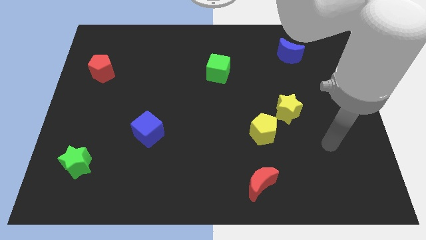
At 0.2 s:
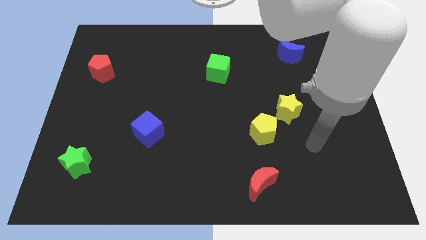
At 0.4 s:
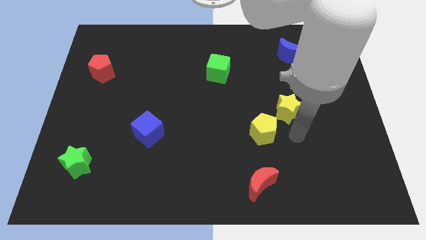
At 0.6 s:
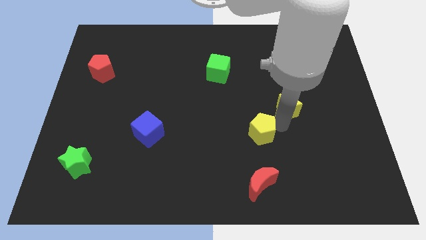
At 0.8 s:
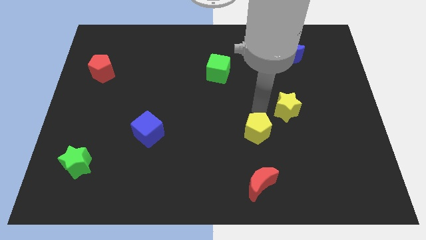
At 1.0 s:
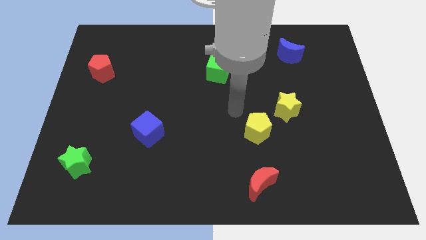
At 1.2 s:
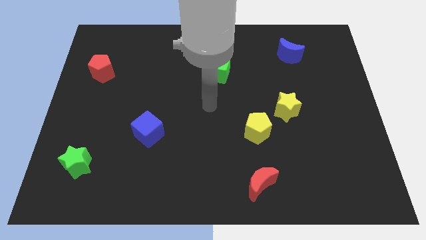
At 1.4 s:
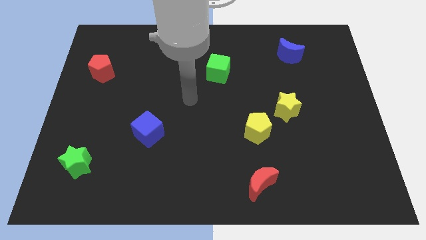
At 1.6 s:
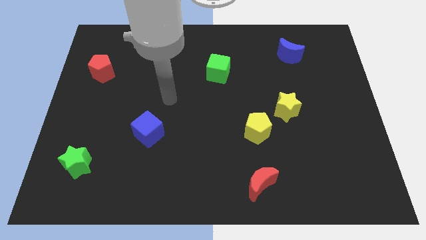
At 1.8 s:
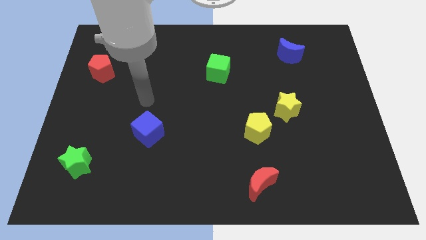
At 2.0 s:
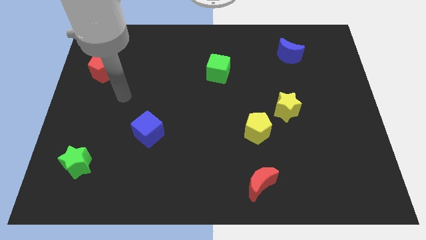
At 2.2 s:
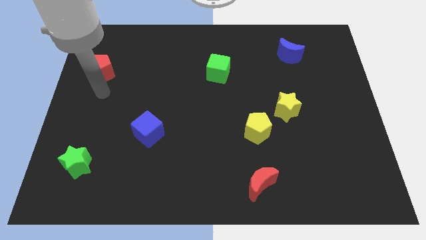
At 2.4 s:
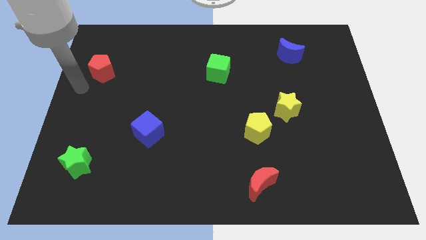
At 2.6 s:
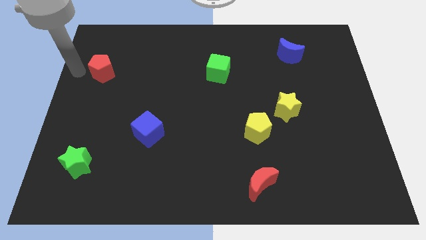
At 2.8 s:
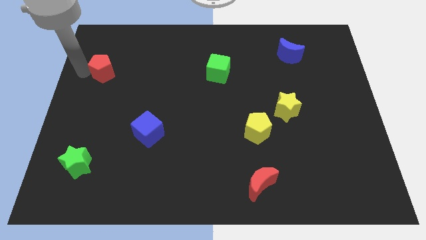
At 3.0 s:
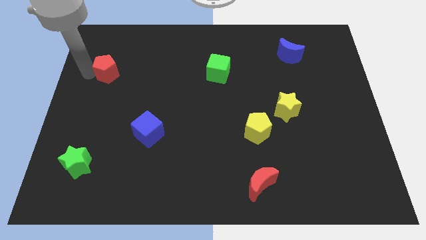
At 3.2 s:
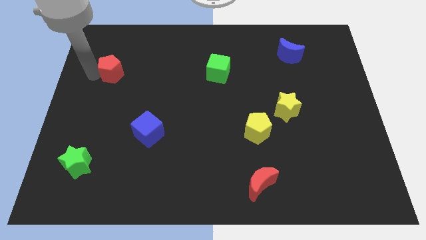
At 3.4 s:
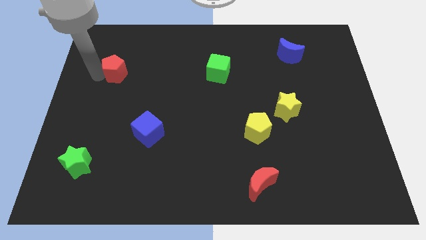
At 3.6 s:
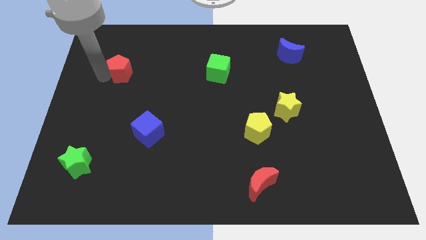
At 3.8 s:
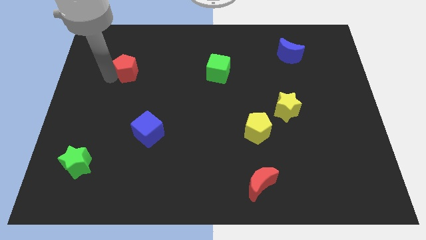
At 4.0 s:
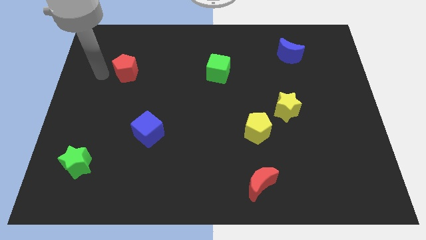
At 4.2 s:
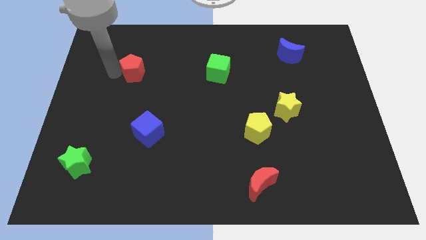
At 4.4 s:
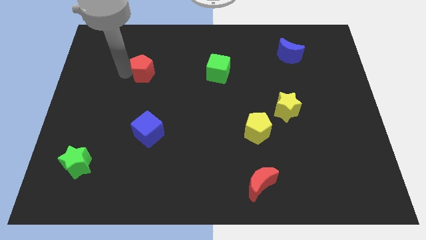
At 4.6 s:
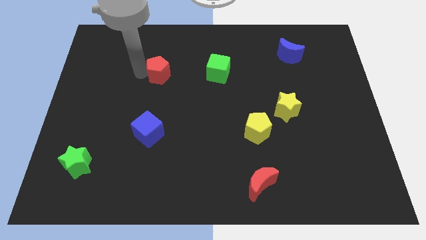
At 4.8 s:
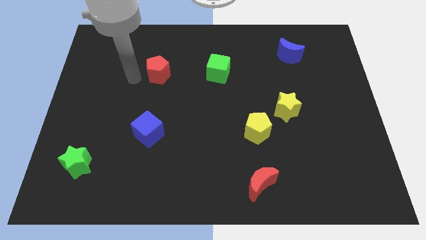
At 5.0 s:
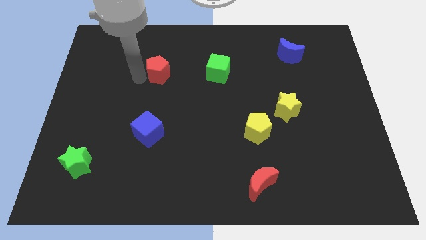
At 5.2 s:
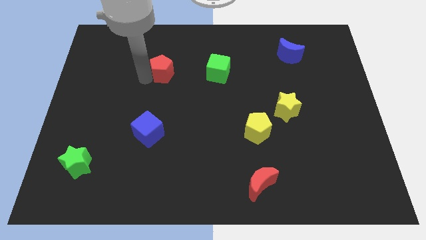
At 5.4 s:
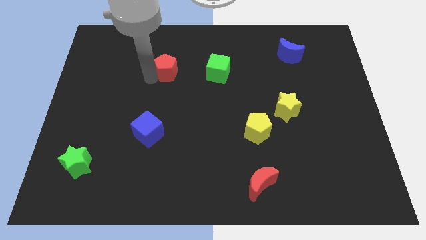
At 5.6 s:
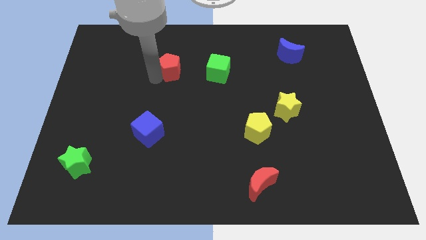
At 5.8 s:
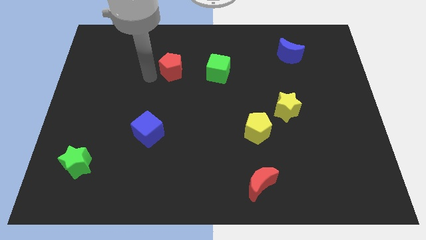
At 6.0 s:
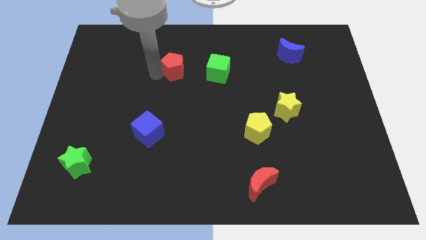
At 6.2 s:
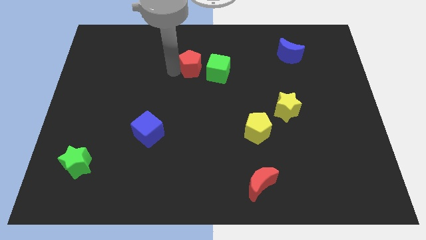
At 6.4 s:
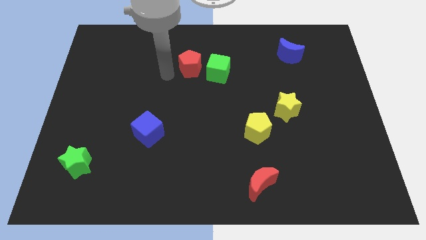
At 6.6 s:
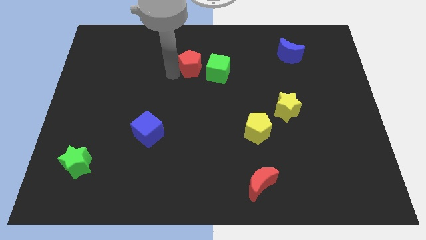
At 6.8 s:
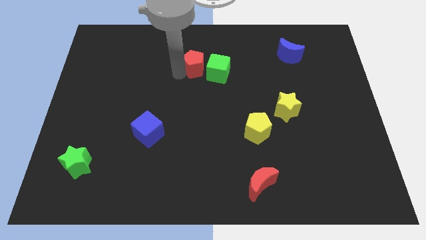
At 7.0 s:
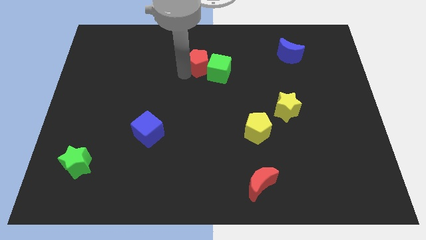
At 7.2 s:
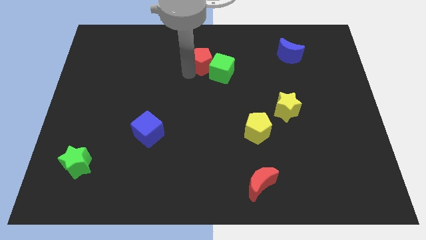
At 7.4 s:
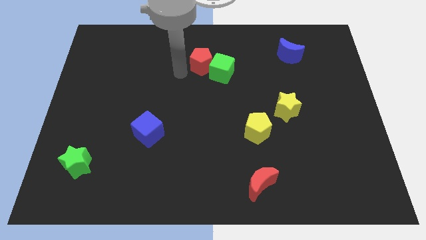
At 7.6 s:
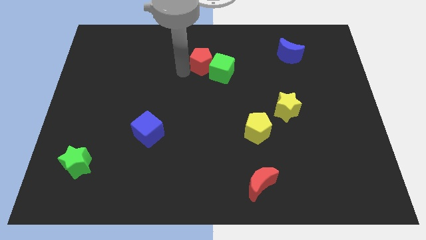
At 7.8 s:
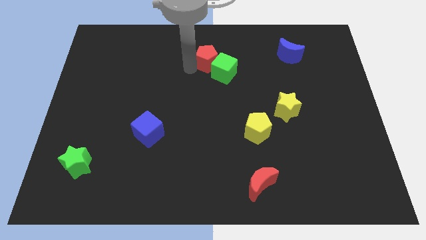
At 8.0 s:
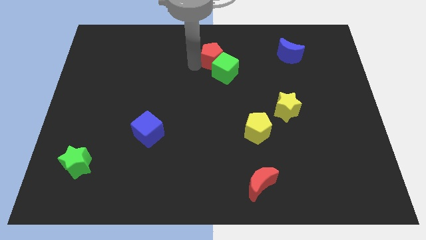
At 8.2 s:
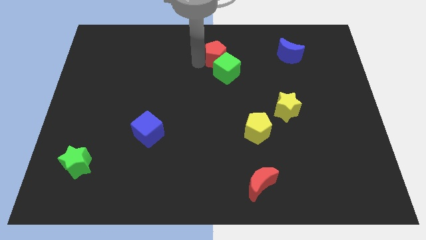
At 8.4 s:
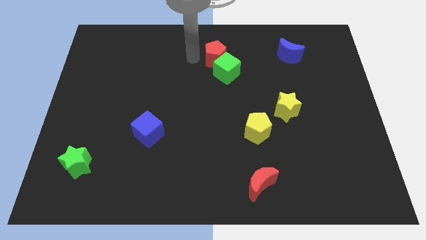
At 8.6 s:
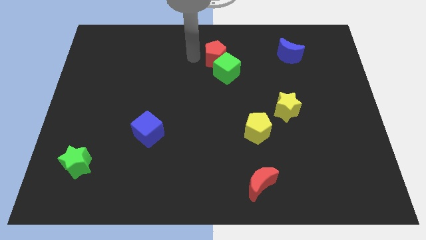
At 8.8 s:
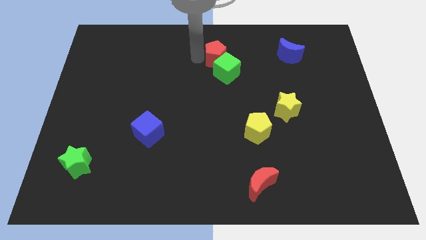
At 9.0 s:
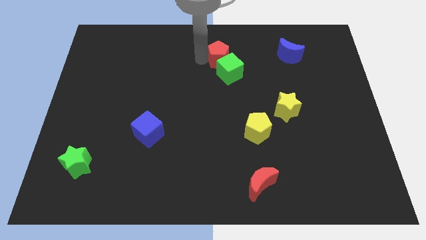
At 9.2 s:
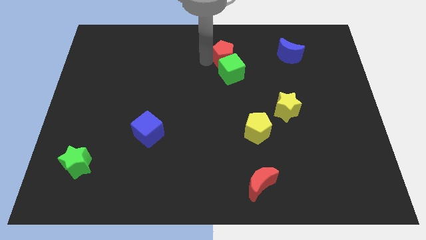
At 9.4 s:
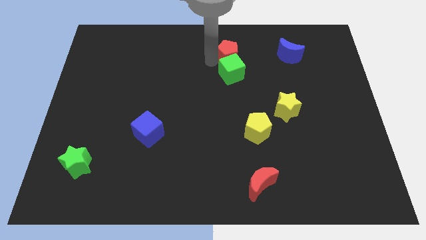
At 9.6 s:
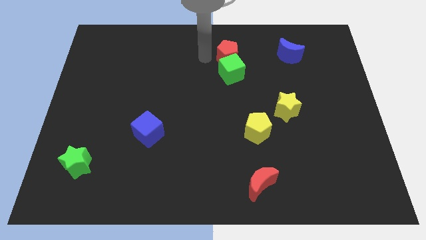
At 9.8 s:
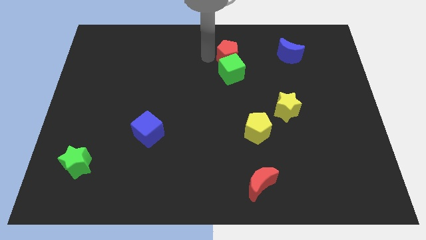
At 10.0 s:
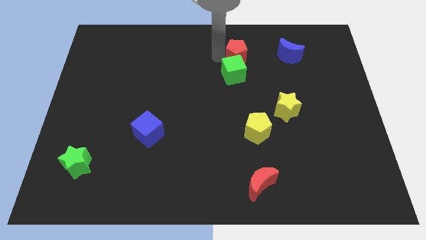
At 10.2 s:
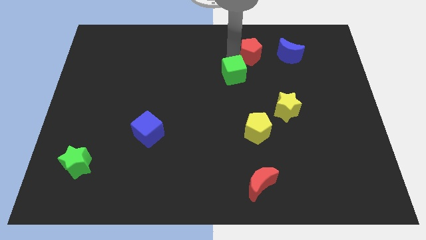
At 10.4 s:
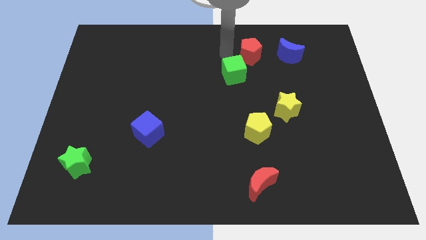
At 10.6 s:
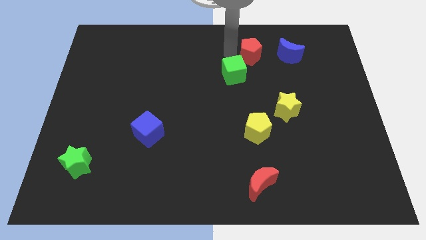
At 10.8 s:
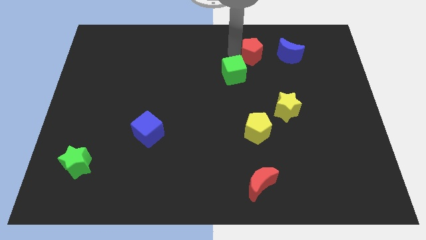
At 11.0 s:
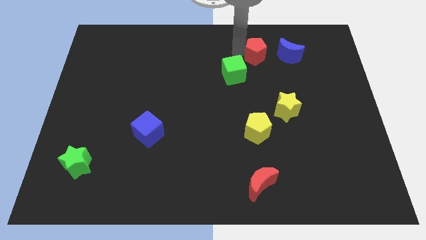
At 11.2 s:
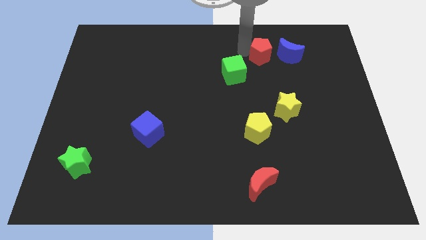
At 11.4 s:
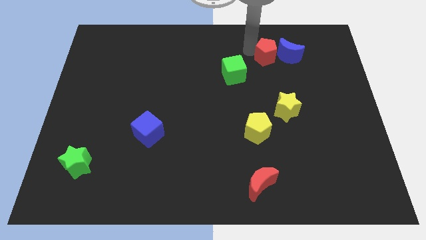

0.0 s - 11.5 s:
move the red pentagon next to the blue moon

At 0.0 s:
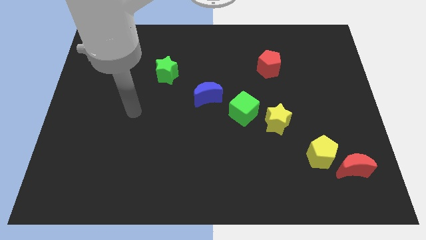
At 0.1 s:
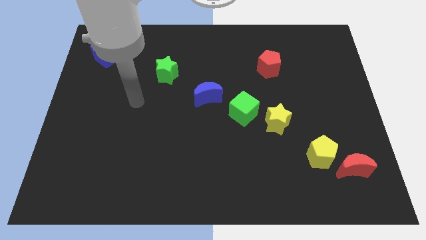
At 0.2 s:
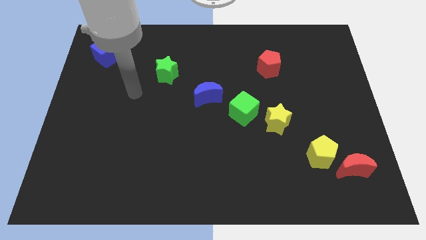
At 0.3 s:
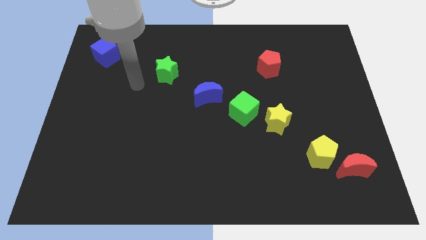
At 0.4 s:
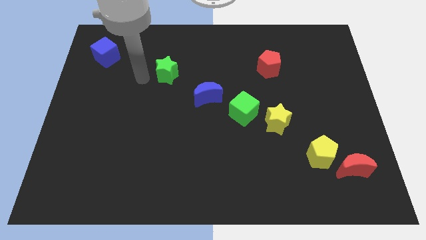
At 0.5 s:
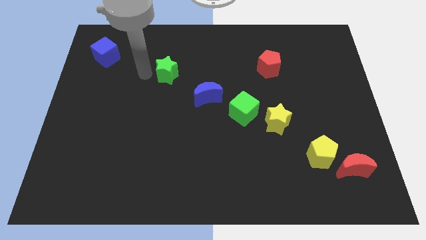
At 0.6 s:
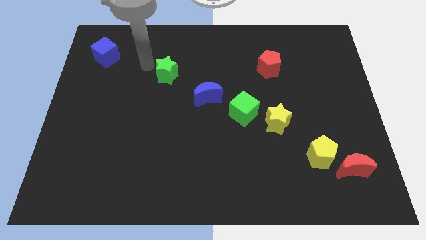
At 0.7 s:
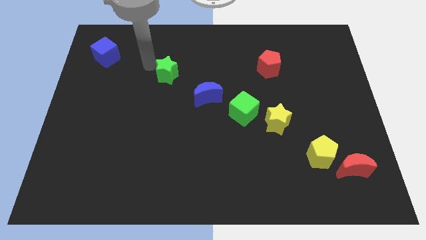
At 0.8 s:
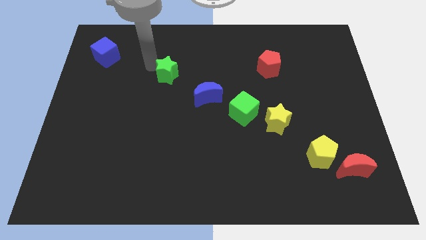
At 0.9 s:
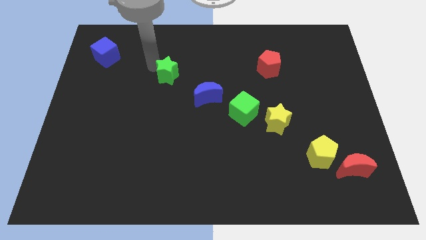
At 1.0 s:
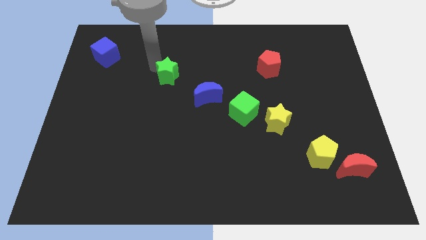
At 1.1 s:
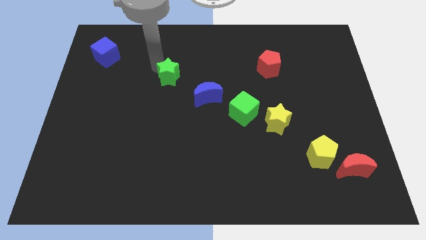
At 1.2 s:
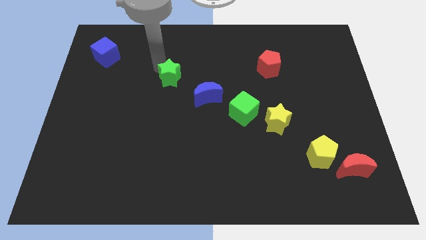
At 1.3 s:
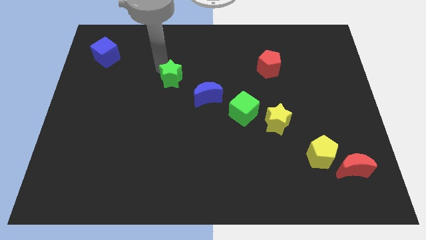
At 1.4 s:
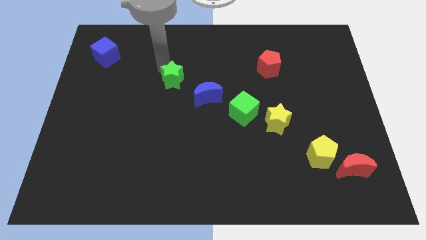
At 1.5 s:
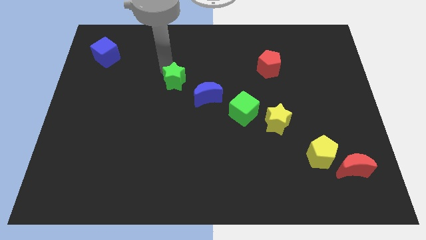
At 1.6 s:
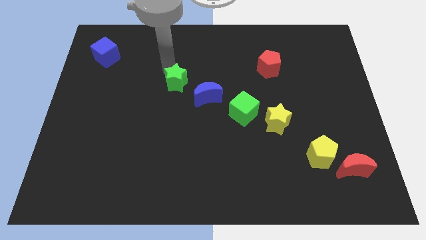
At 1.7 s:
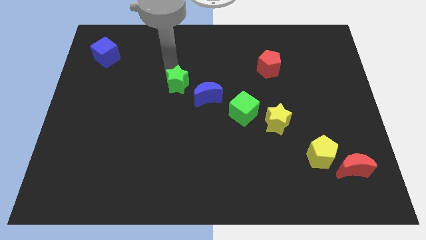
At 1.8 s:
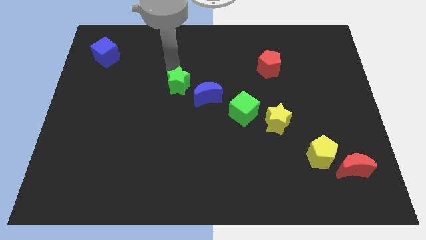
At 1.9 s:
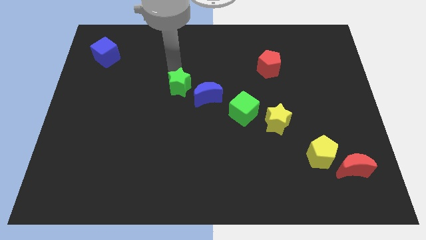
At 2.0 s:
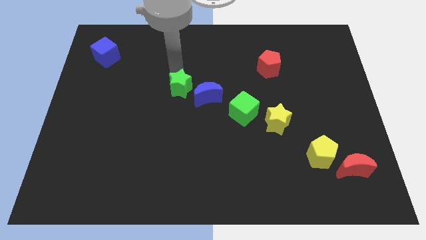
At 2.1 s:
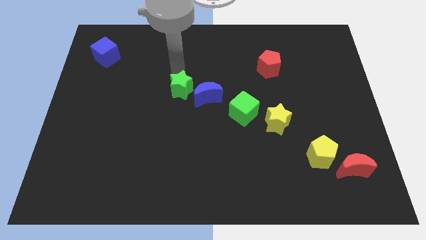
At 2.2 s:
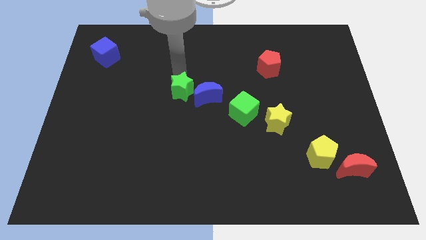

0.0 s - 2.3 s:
slide the green star close to the blue moon
